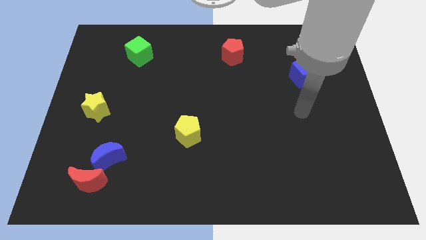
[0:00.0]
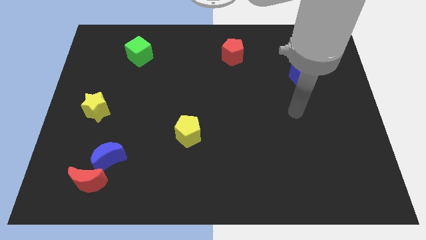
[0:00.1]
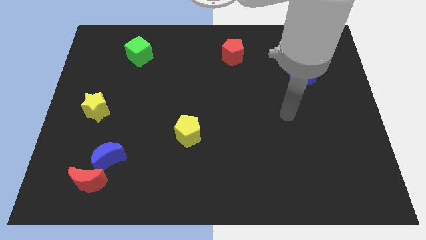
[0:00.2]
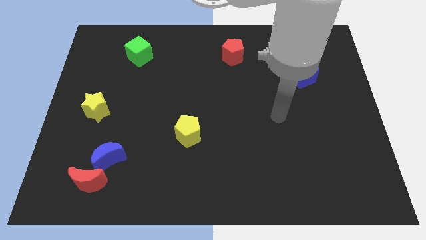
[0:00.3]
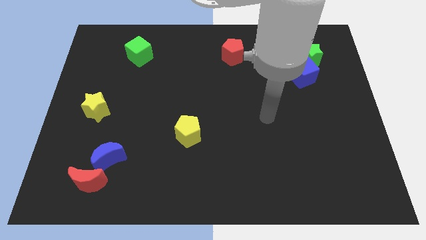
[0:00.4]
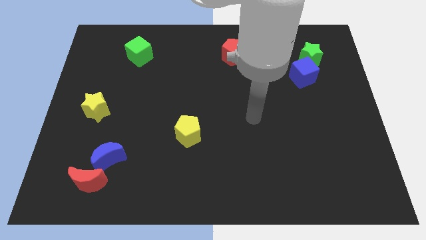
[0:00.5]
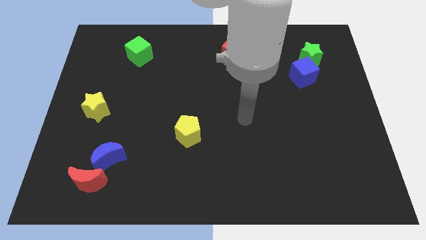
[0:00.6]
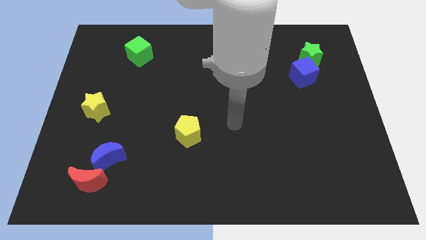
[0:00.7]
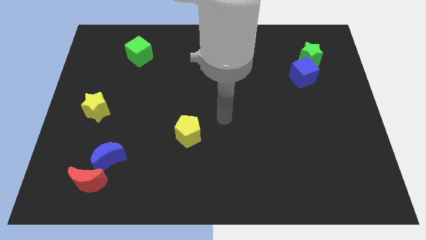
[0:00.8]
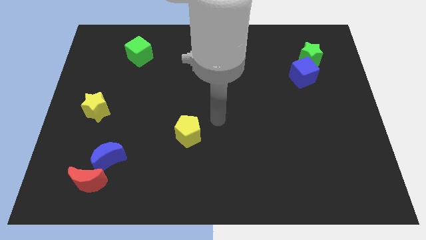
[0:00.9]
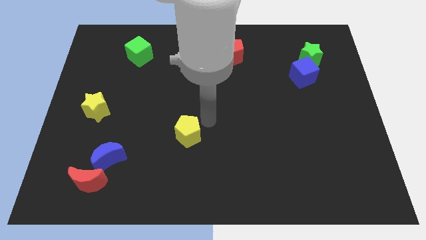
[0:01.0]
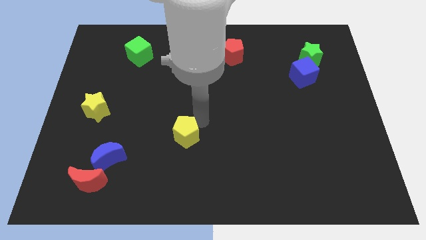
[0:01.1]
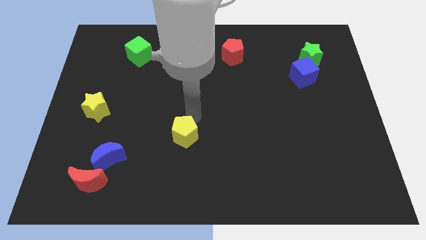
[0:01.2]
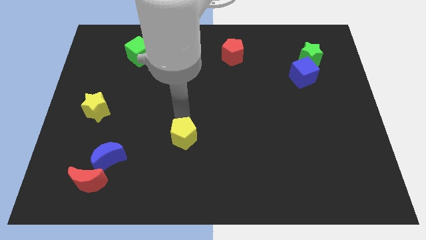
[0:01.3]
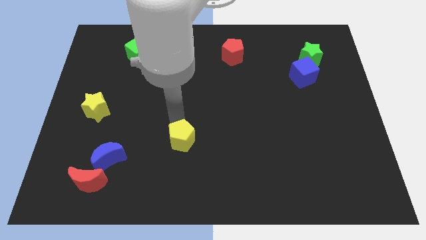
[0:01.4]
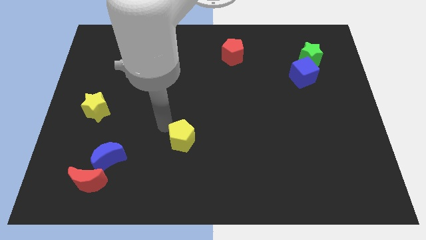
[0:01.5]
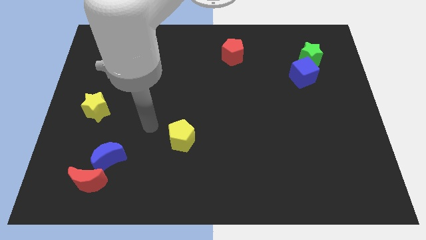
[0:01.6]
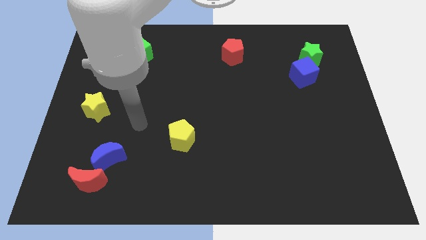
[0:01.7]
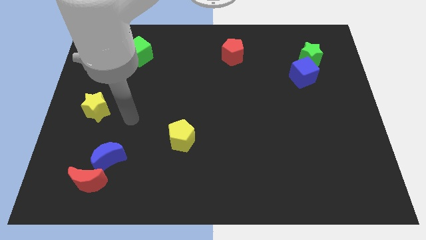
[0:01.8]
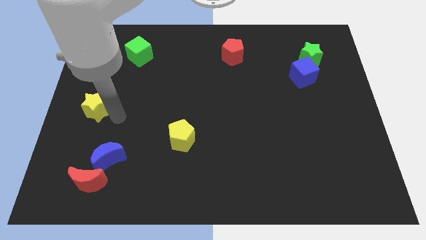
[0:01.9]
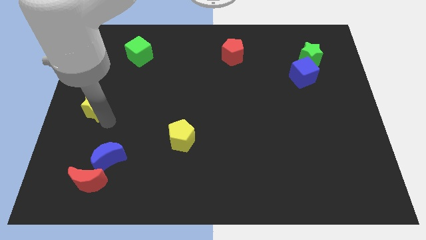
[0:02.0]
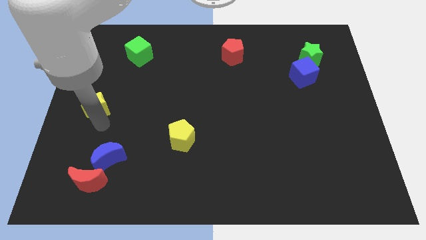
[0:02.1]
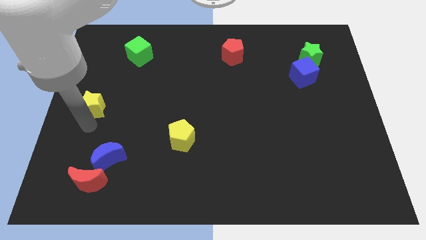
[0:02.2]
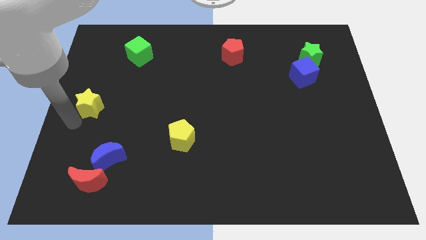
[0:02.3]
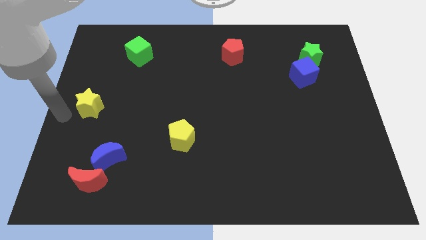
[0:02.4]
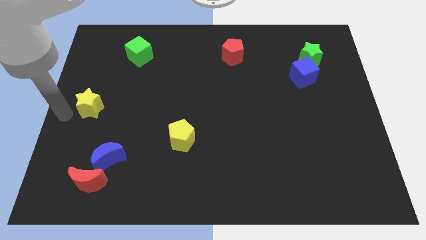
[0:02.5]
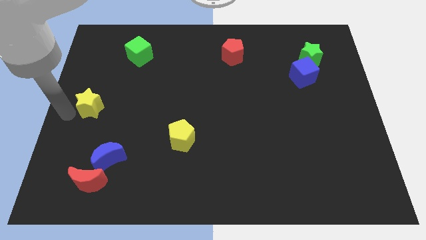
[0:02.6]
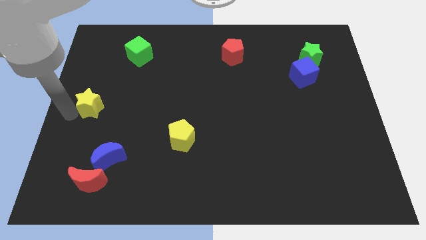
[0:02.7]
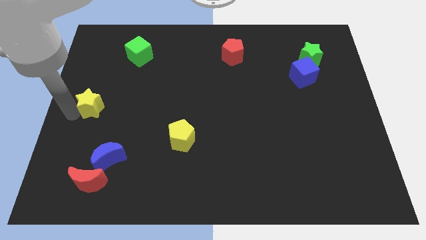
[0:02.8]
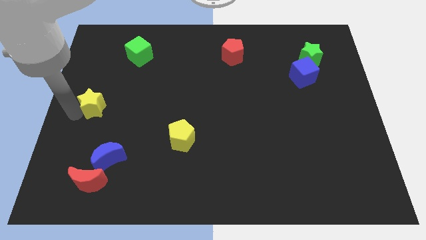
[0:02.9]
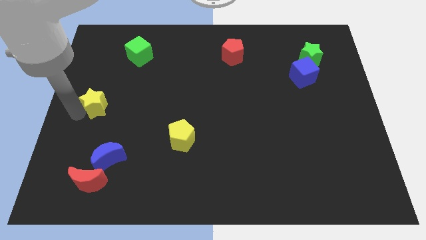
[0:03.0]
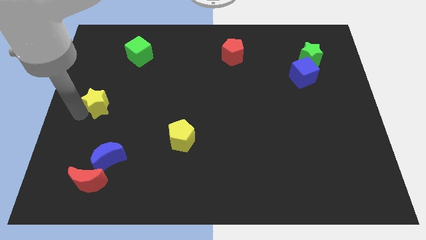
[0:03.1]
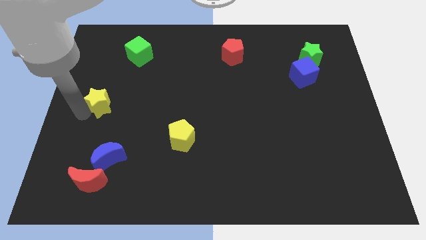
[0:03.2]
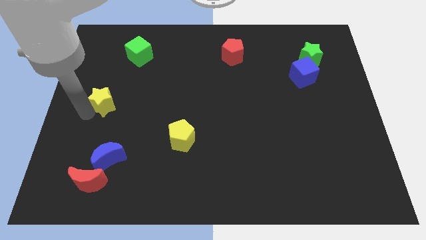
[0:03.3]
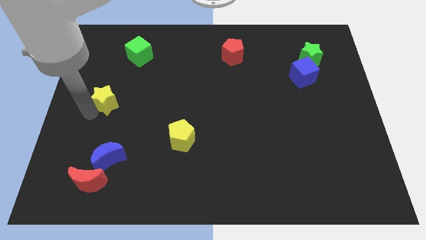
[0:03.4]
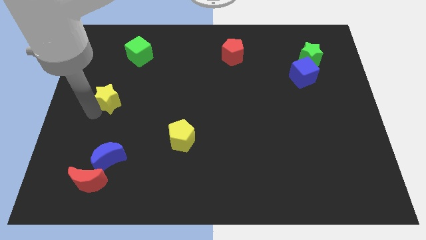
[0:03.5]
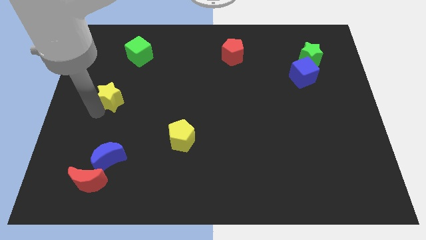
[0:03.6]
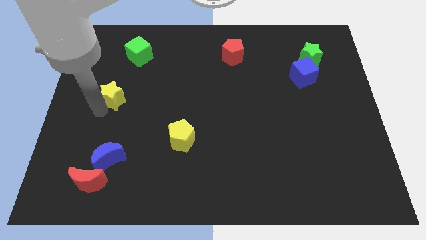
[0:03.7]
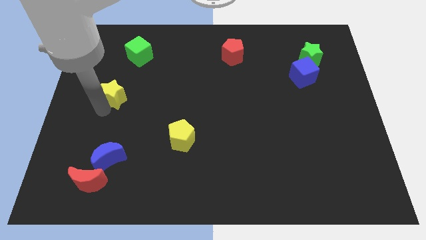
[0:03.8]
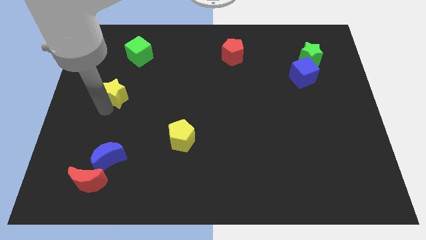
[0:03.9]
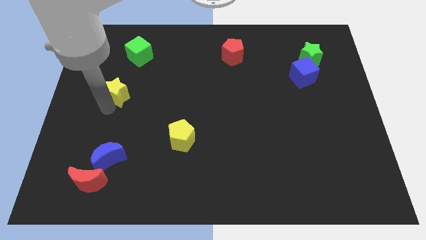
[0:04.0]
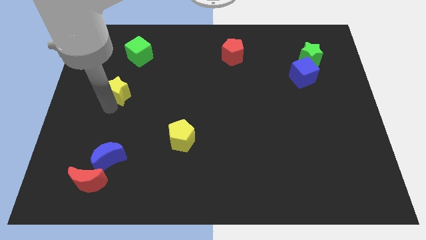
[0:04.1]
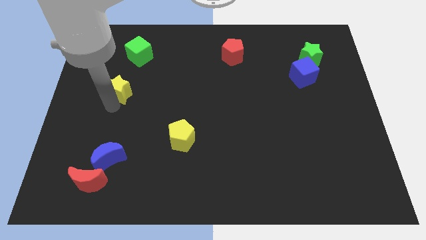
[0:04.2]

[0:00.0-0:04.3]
slide the yellow star upwards and right diagonally a little

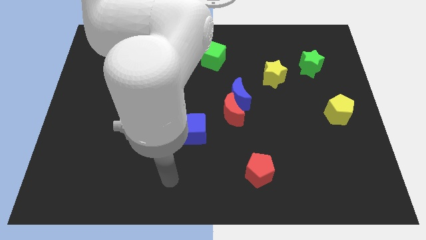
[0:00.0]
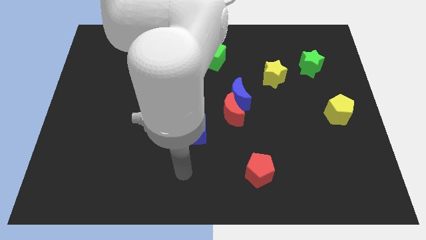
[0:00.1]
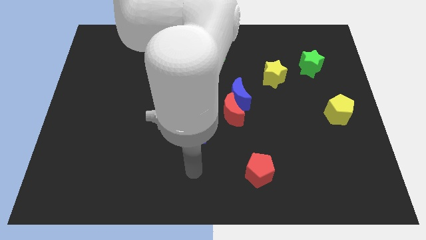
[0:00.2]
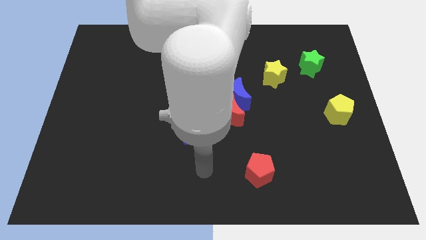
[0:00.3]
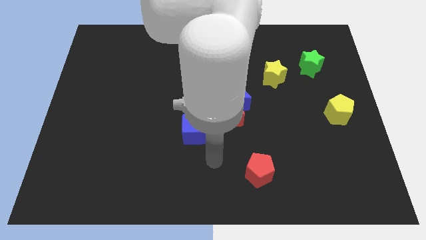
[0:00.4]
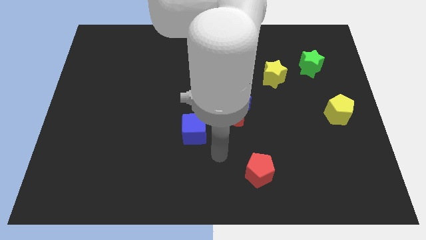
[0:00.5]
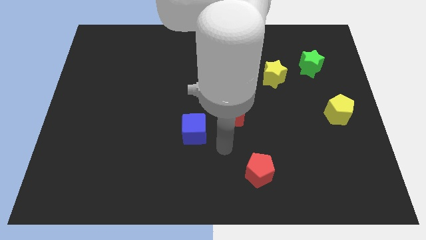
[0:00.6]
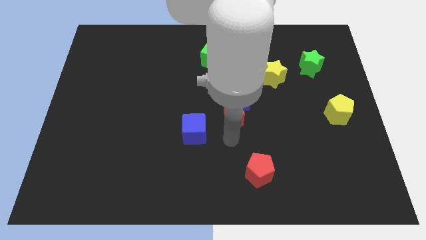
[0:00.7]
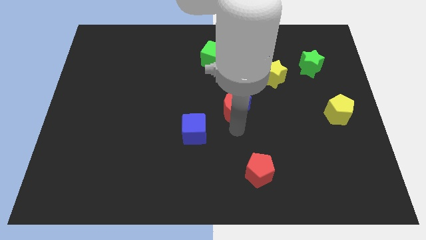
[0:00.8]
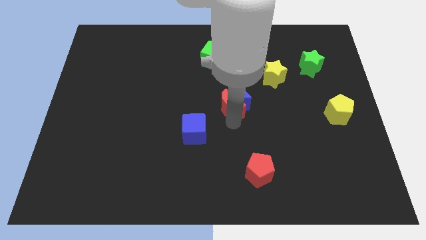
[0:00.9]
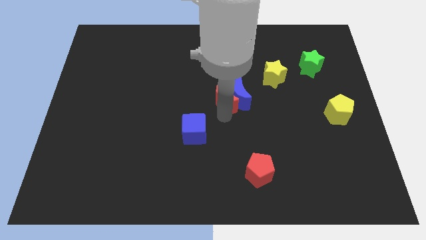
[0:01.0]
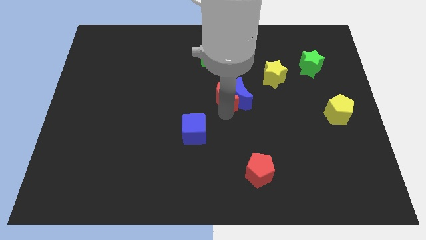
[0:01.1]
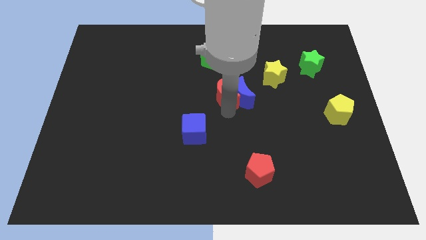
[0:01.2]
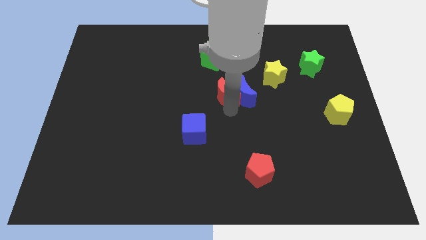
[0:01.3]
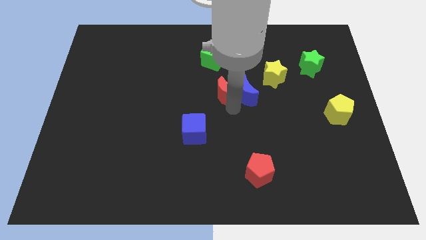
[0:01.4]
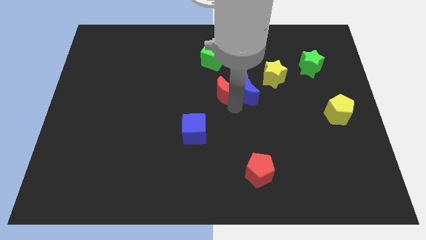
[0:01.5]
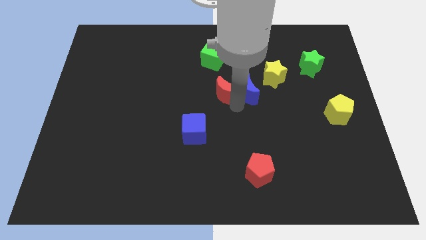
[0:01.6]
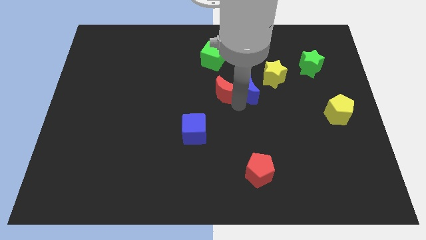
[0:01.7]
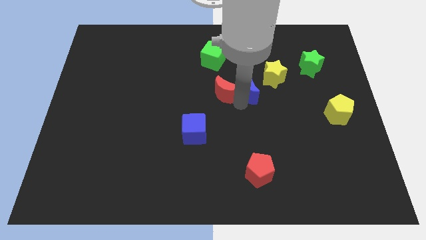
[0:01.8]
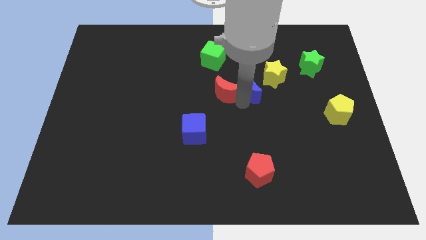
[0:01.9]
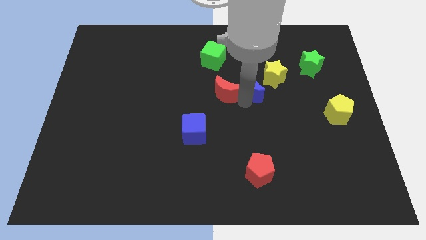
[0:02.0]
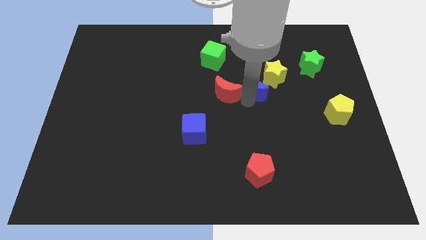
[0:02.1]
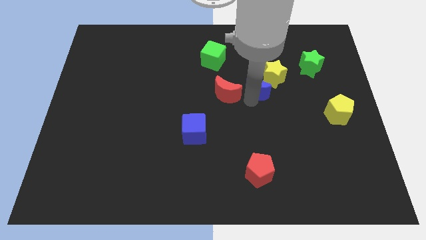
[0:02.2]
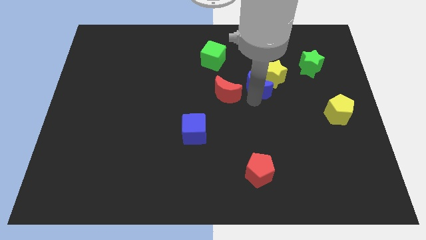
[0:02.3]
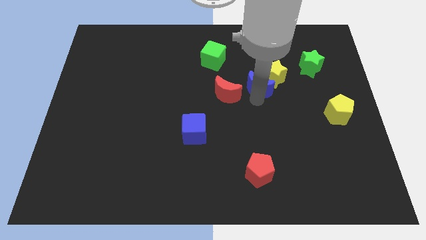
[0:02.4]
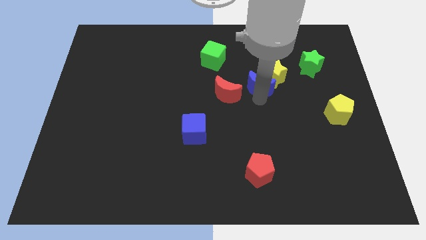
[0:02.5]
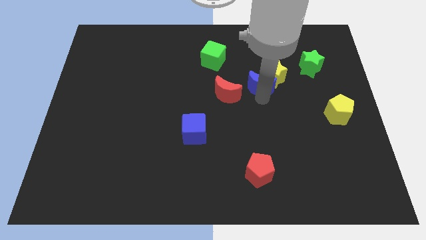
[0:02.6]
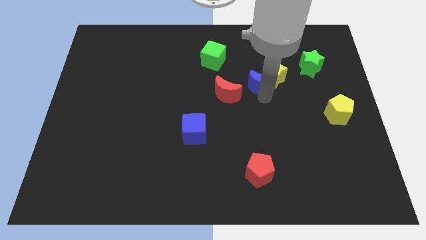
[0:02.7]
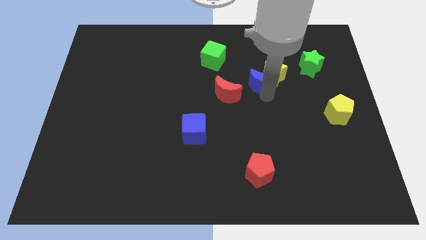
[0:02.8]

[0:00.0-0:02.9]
slide the blue moon a little upwards and then right

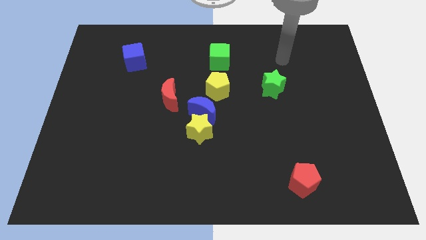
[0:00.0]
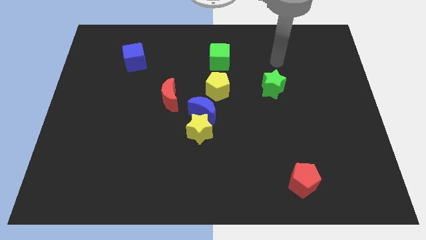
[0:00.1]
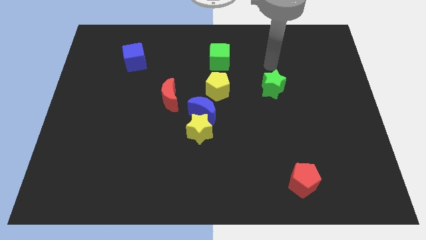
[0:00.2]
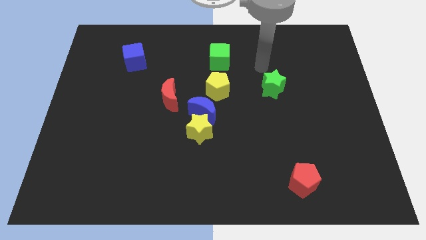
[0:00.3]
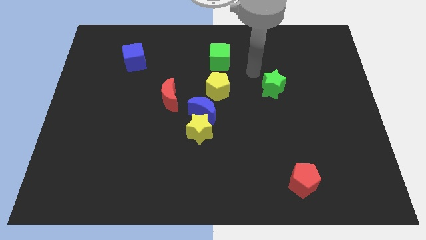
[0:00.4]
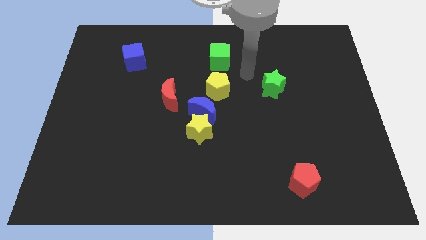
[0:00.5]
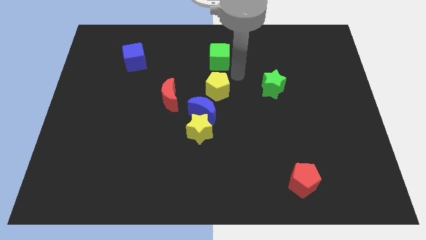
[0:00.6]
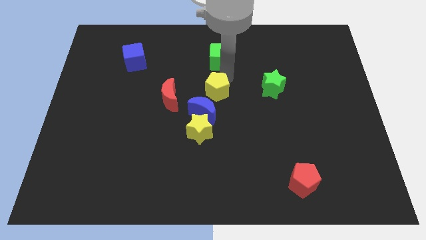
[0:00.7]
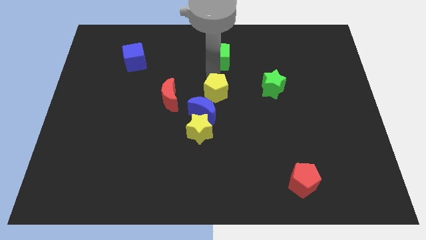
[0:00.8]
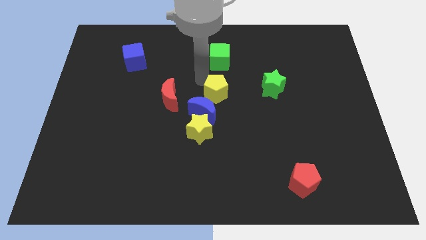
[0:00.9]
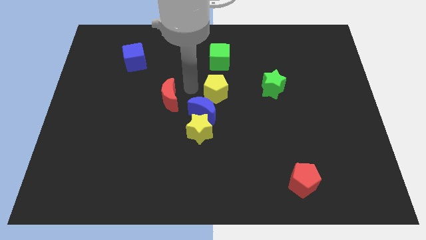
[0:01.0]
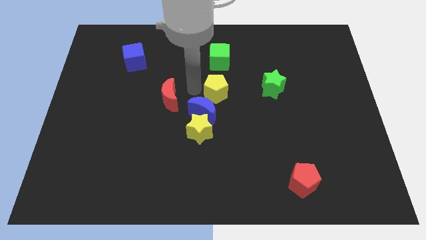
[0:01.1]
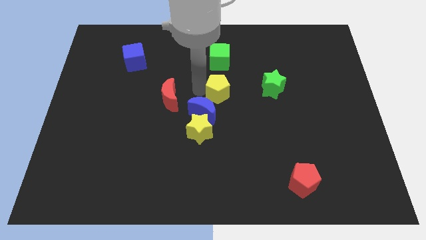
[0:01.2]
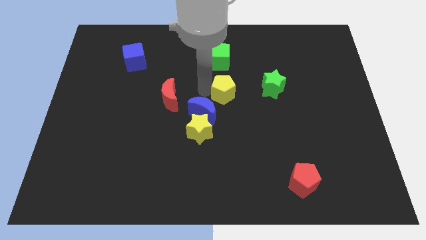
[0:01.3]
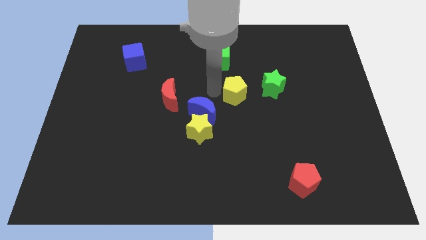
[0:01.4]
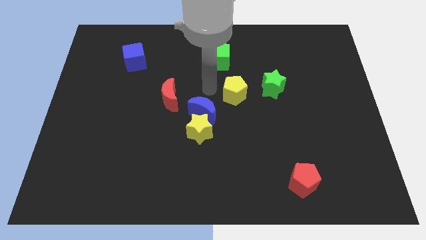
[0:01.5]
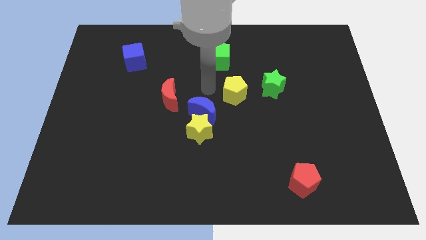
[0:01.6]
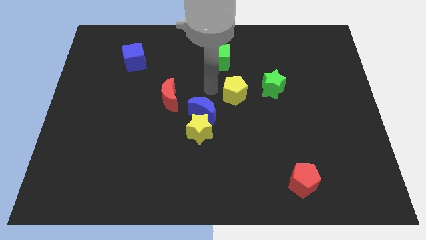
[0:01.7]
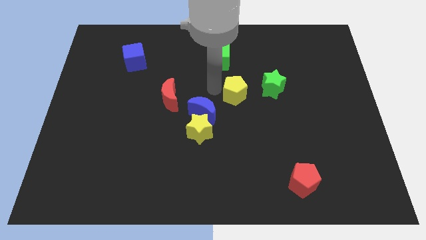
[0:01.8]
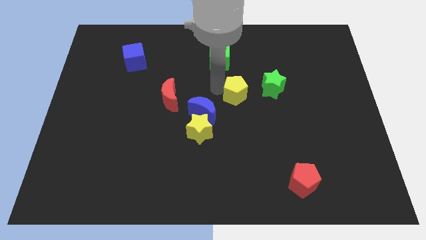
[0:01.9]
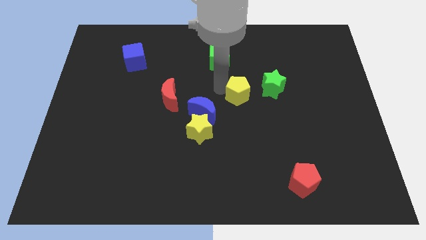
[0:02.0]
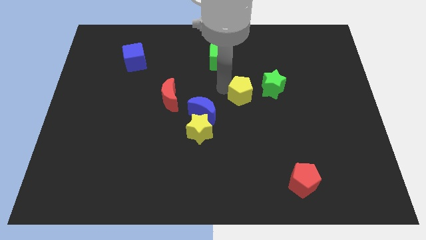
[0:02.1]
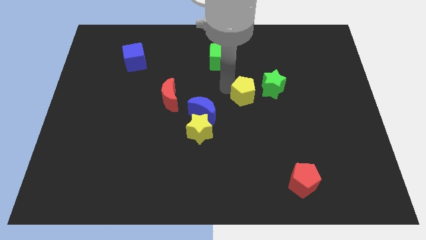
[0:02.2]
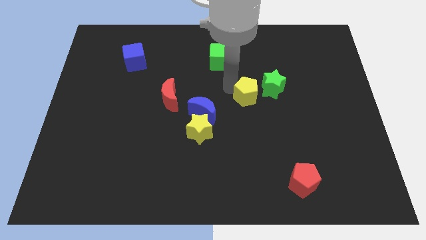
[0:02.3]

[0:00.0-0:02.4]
push the yellow pentagon a little right
